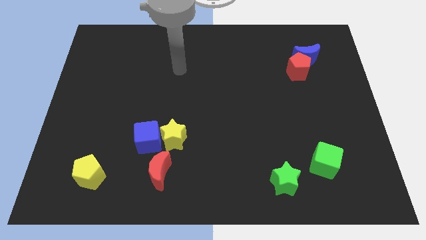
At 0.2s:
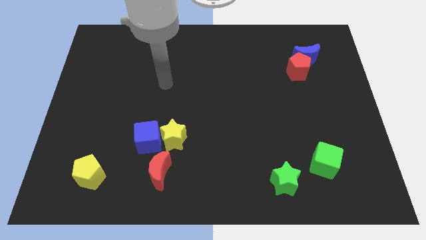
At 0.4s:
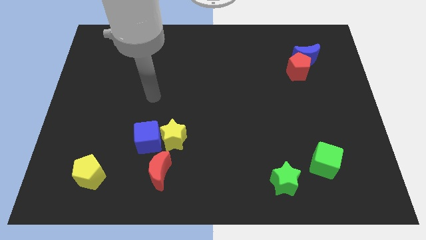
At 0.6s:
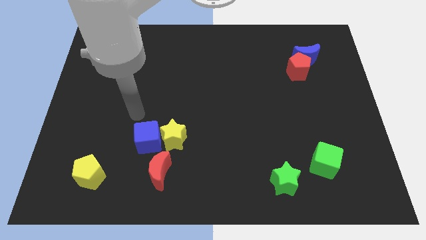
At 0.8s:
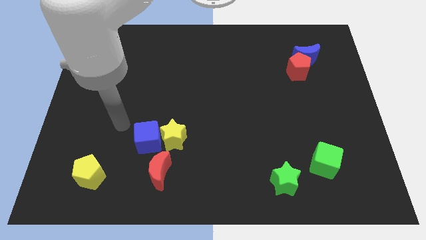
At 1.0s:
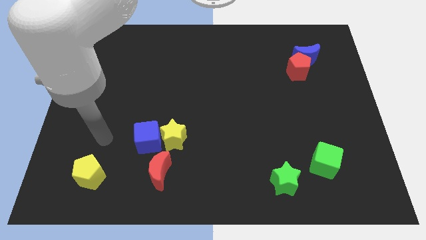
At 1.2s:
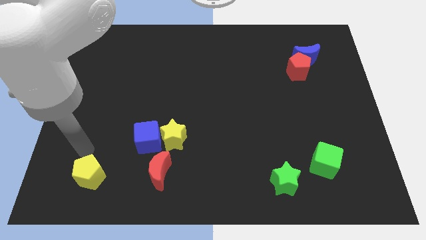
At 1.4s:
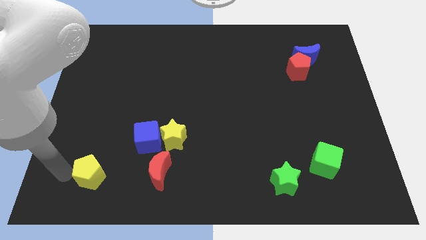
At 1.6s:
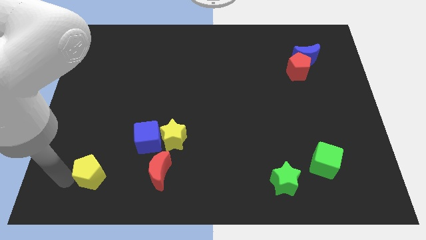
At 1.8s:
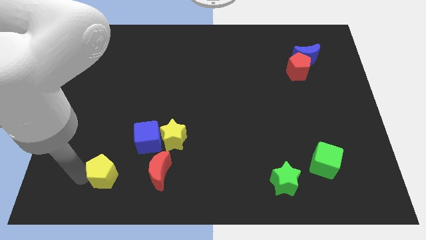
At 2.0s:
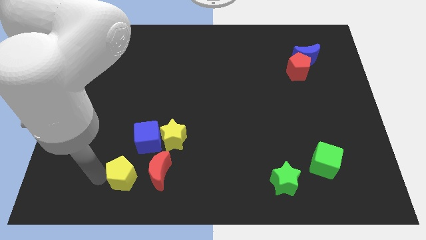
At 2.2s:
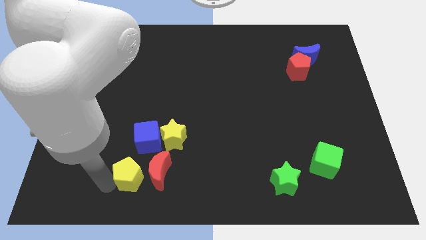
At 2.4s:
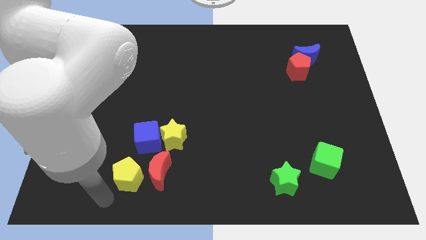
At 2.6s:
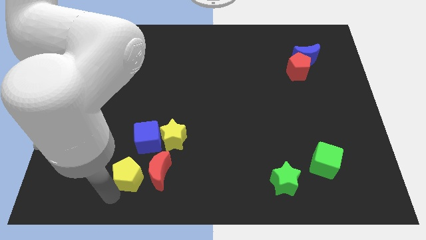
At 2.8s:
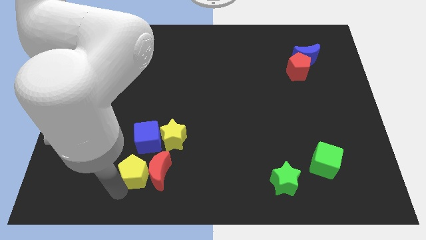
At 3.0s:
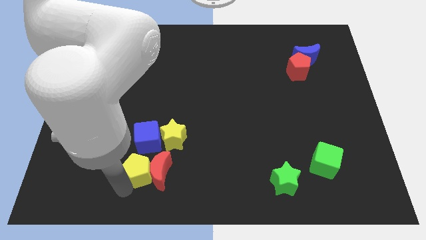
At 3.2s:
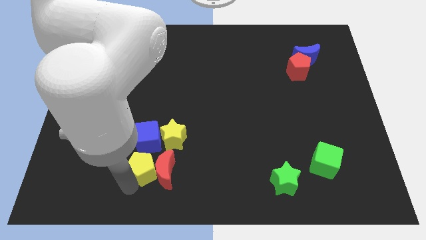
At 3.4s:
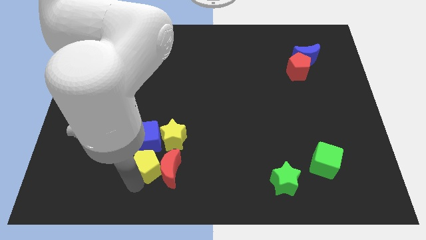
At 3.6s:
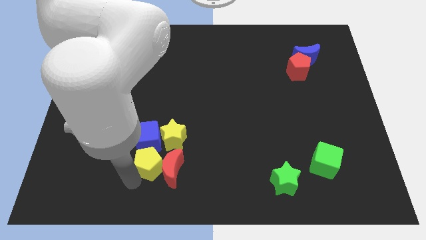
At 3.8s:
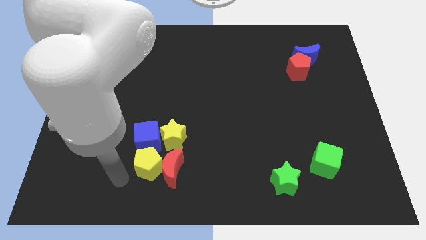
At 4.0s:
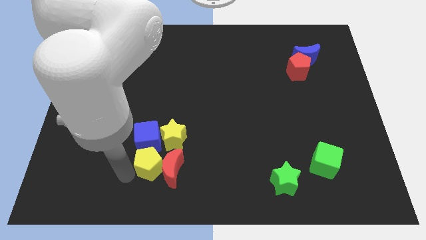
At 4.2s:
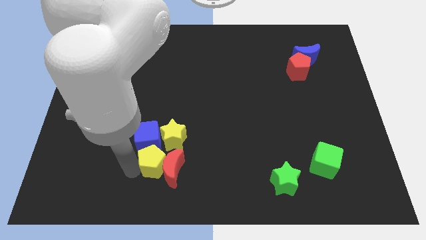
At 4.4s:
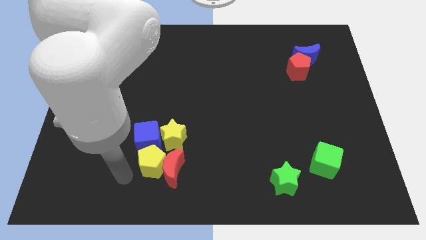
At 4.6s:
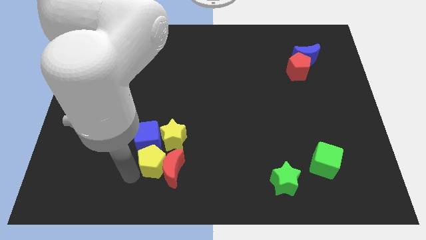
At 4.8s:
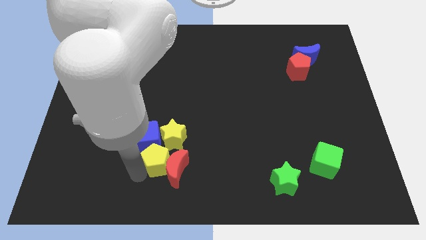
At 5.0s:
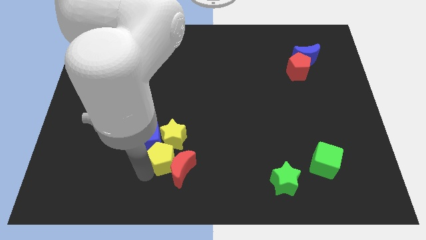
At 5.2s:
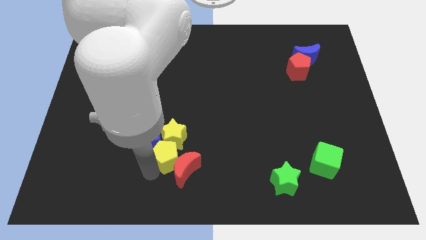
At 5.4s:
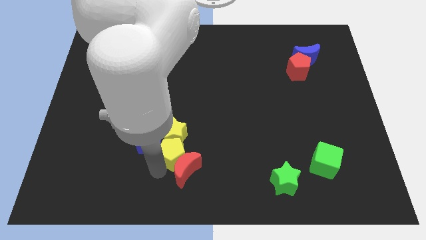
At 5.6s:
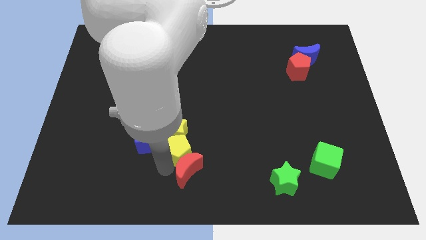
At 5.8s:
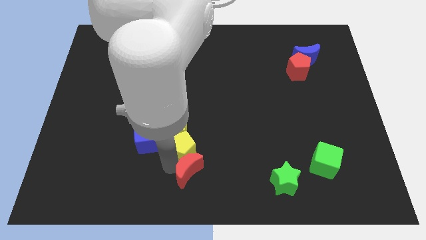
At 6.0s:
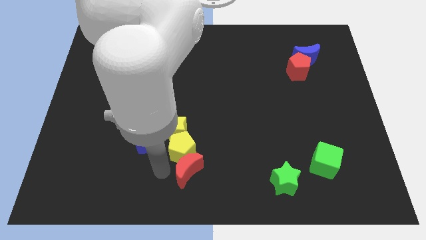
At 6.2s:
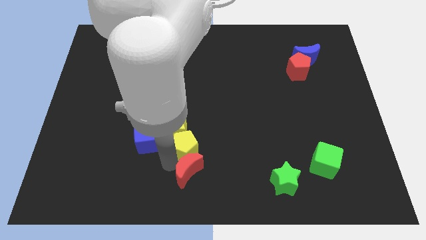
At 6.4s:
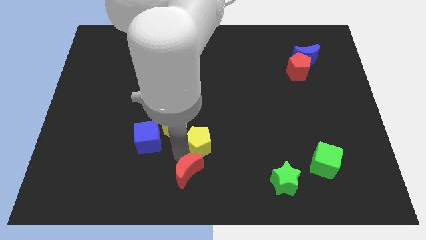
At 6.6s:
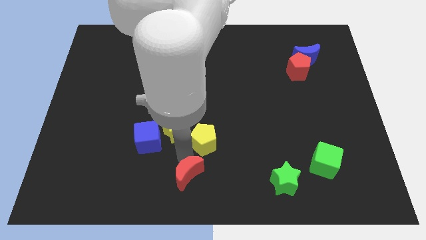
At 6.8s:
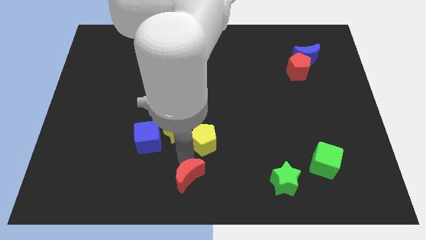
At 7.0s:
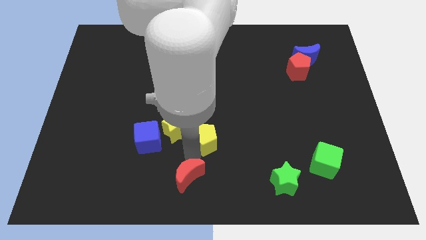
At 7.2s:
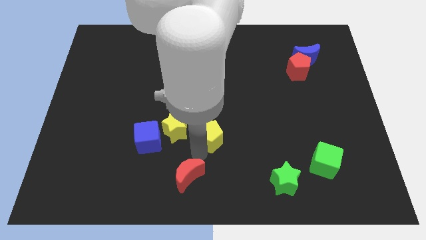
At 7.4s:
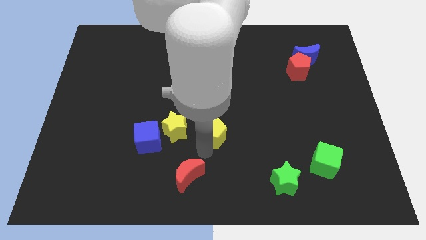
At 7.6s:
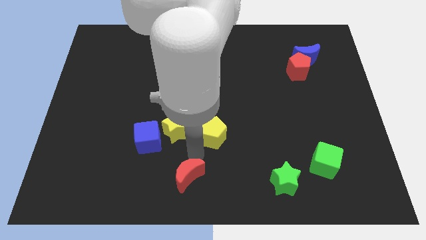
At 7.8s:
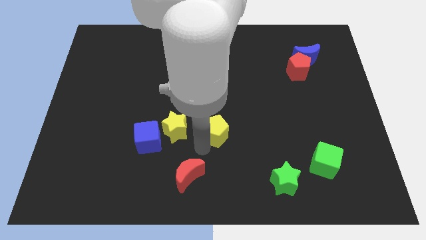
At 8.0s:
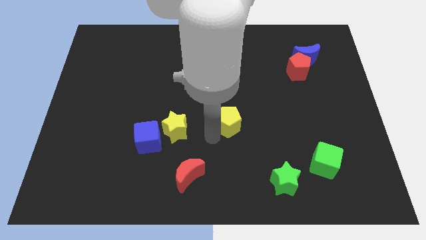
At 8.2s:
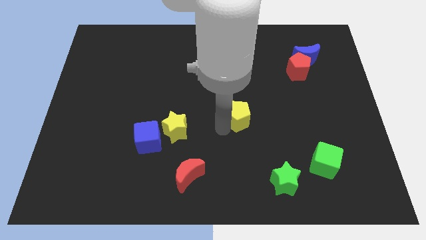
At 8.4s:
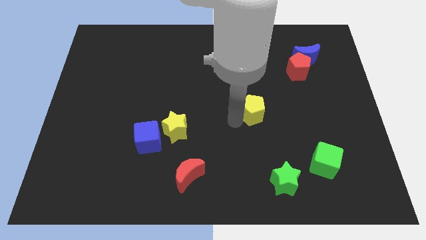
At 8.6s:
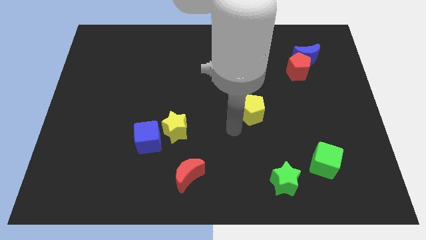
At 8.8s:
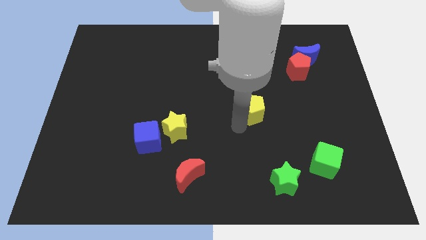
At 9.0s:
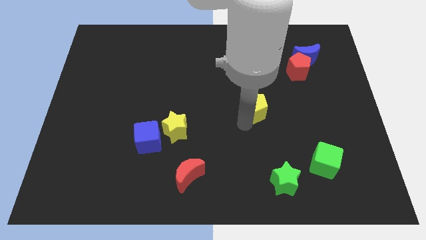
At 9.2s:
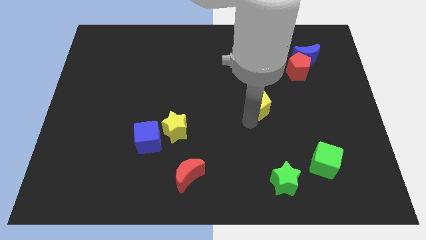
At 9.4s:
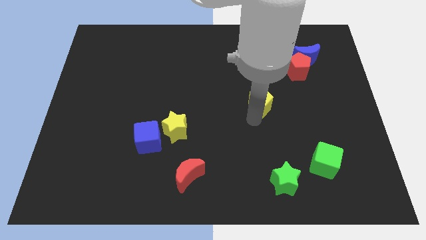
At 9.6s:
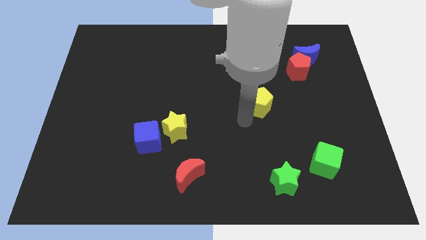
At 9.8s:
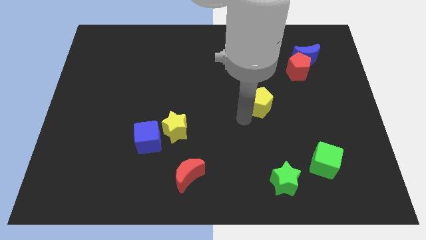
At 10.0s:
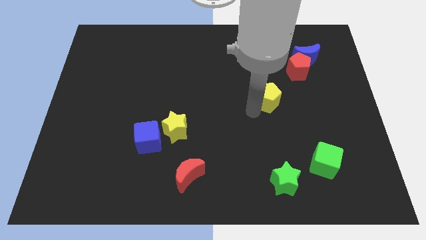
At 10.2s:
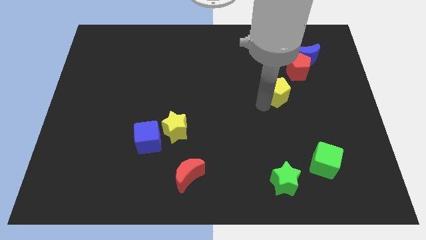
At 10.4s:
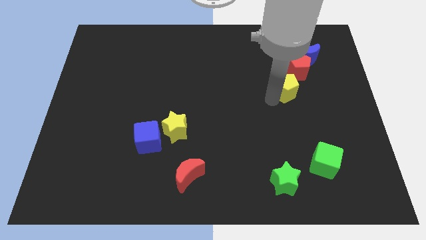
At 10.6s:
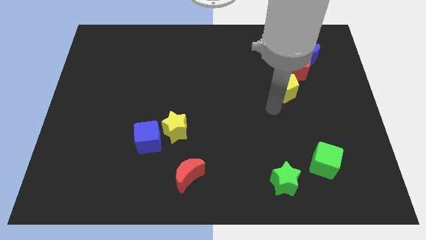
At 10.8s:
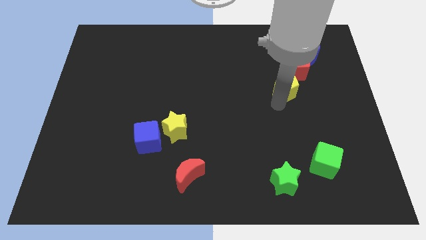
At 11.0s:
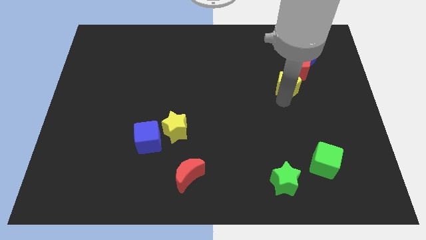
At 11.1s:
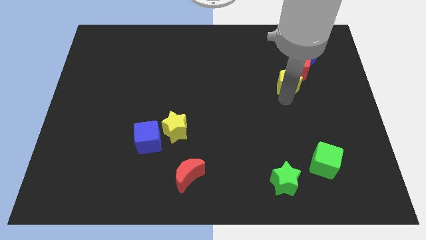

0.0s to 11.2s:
move the yellow pentagon close to the red pentagon

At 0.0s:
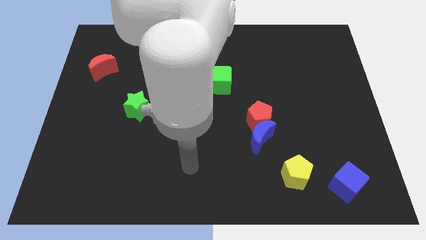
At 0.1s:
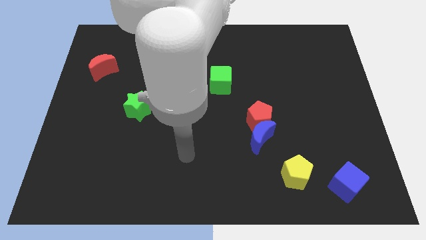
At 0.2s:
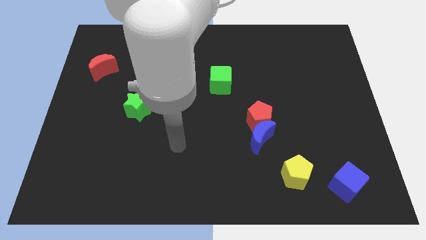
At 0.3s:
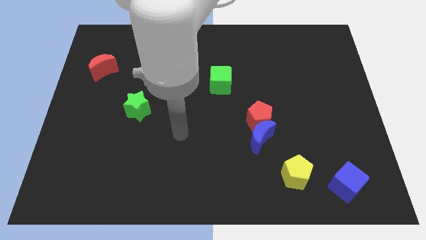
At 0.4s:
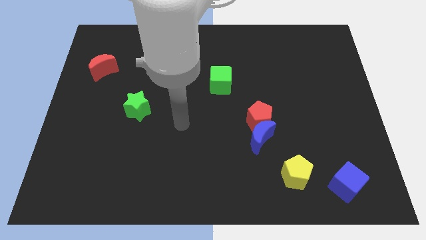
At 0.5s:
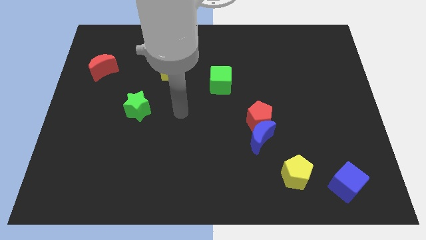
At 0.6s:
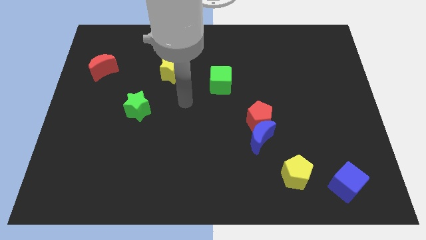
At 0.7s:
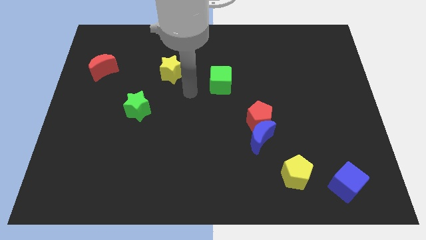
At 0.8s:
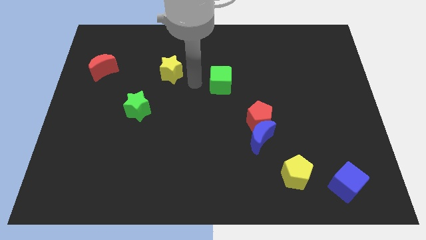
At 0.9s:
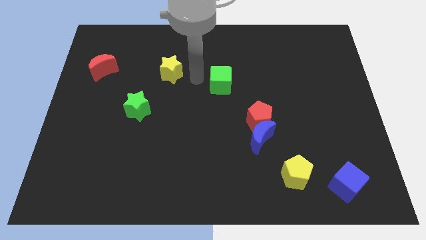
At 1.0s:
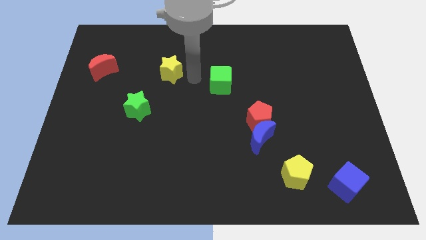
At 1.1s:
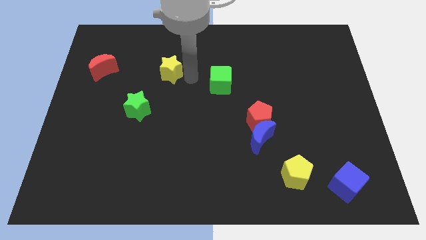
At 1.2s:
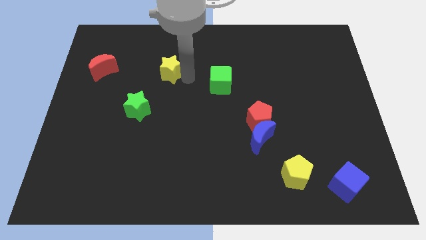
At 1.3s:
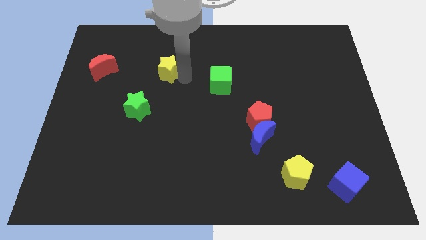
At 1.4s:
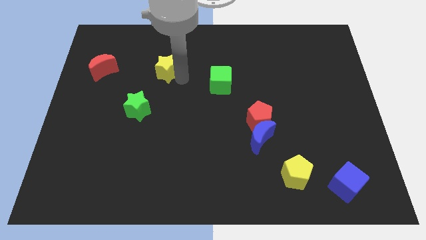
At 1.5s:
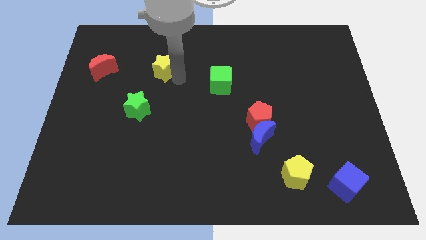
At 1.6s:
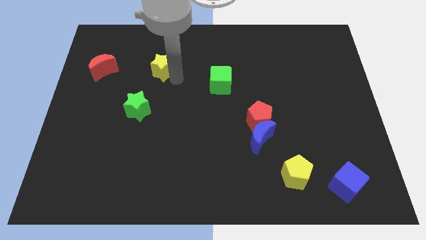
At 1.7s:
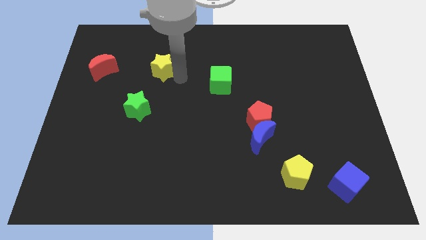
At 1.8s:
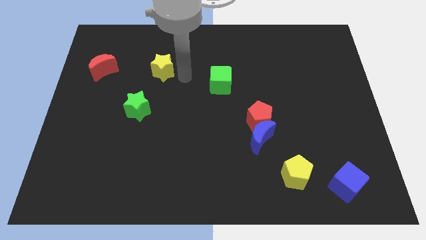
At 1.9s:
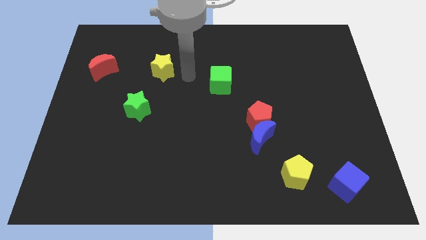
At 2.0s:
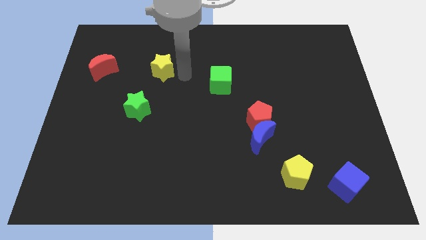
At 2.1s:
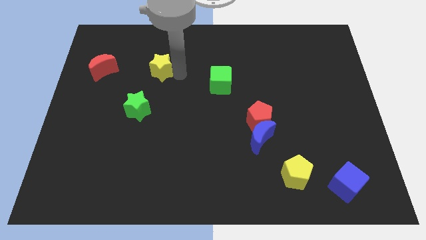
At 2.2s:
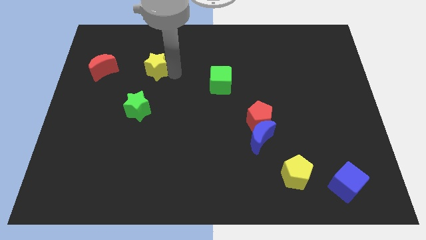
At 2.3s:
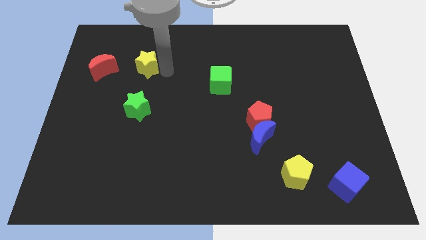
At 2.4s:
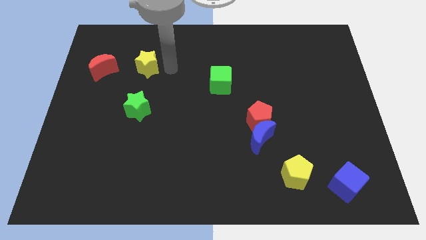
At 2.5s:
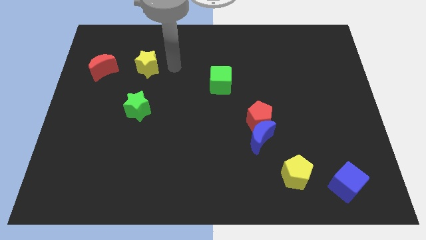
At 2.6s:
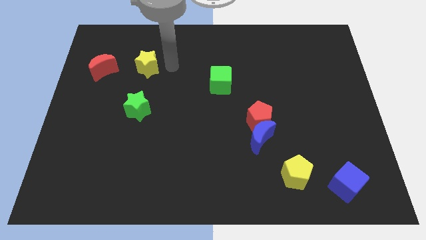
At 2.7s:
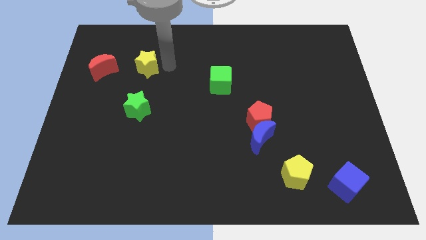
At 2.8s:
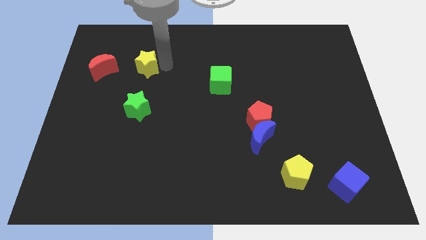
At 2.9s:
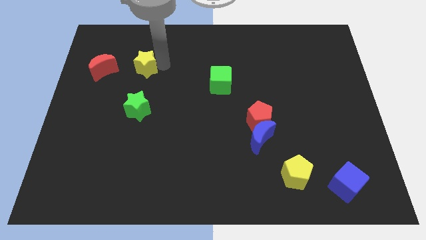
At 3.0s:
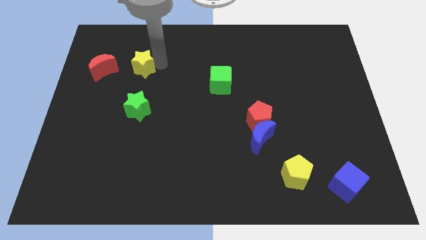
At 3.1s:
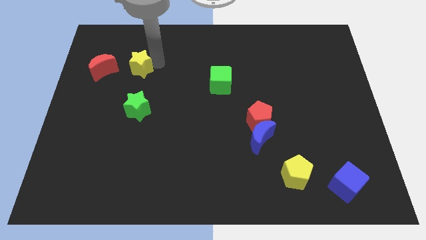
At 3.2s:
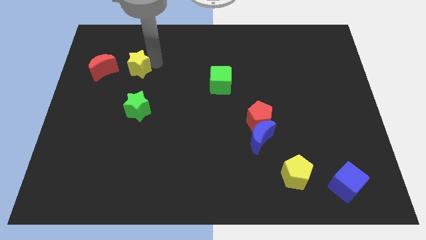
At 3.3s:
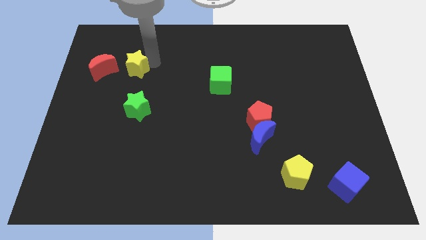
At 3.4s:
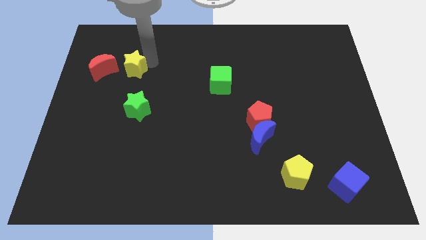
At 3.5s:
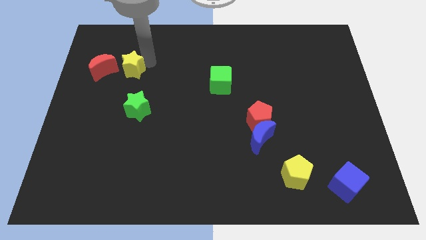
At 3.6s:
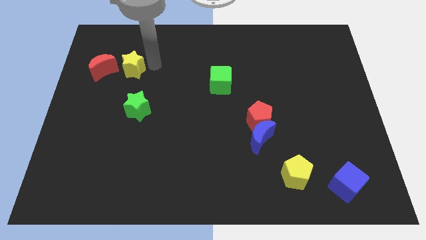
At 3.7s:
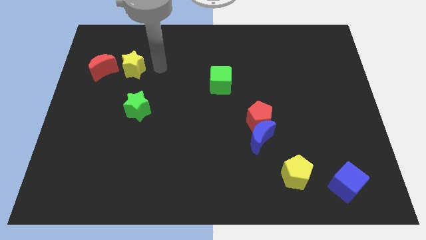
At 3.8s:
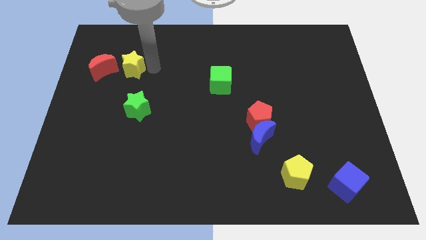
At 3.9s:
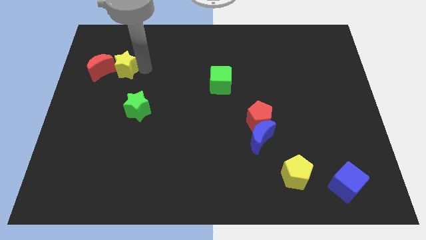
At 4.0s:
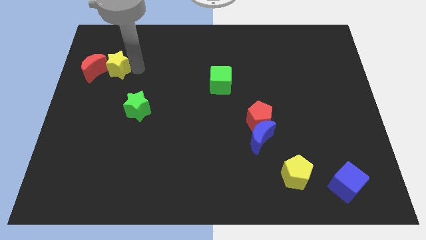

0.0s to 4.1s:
slide the yellow star close to the red moon
